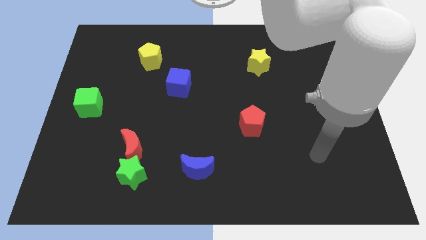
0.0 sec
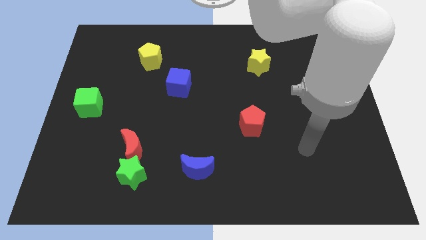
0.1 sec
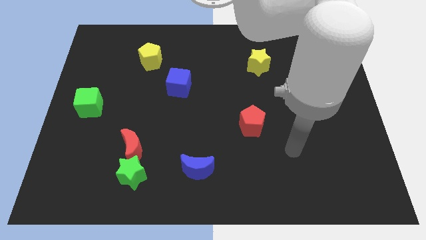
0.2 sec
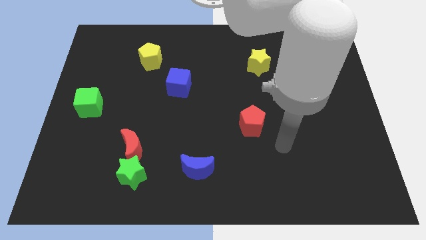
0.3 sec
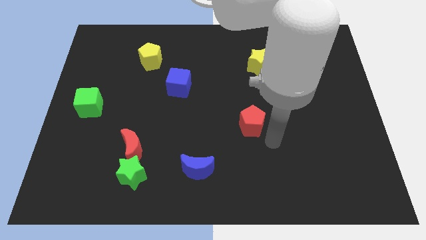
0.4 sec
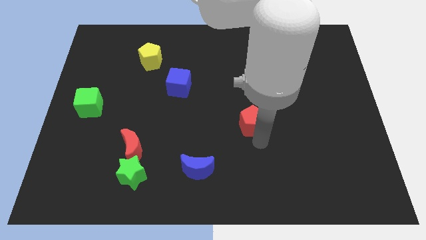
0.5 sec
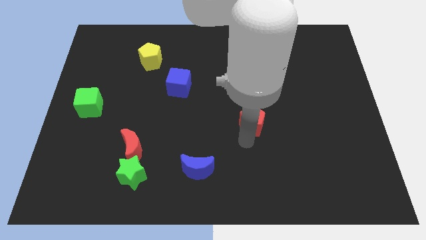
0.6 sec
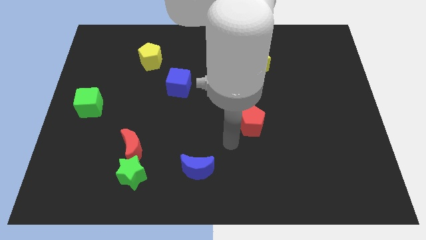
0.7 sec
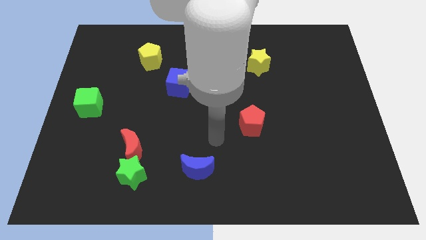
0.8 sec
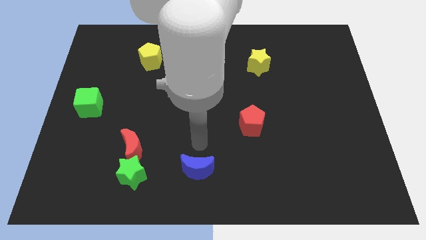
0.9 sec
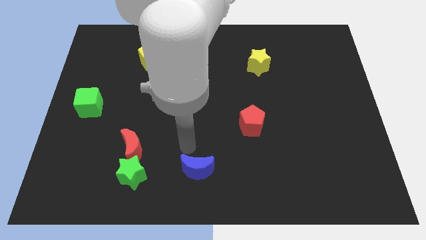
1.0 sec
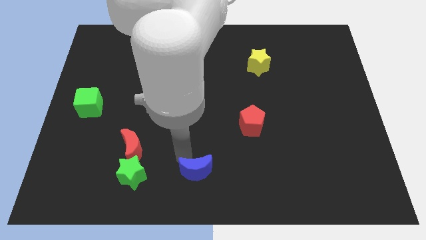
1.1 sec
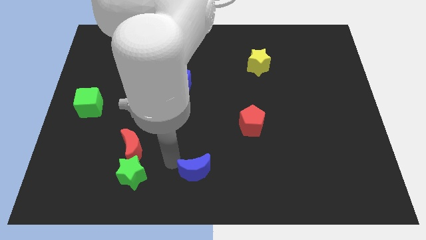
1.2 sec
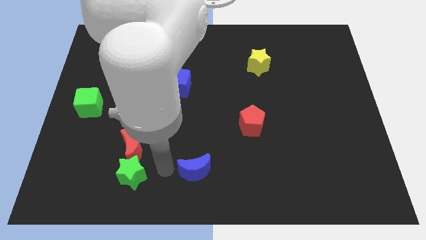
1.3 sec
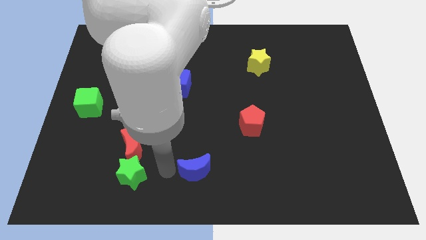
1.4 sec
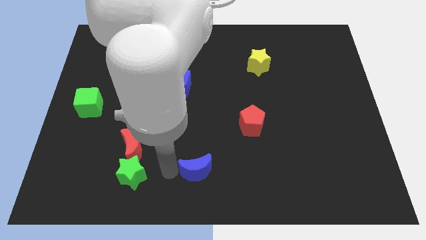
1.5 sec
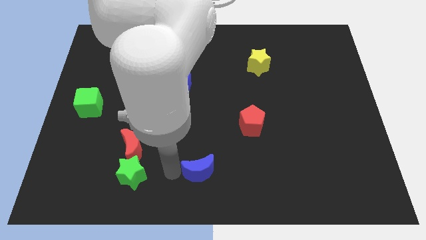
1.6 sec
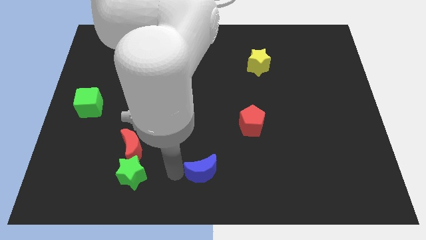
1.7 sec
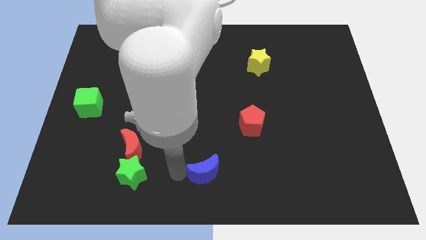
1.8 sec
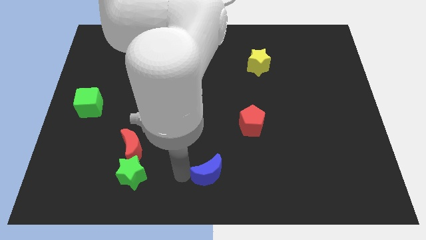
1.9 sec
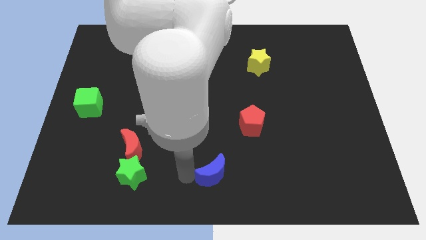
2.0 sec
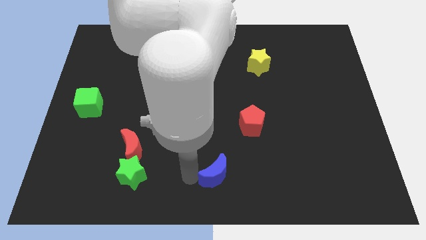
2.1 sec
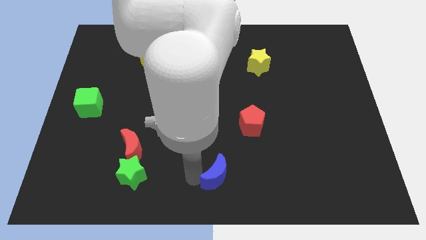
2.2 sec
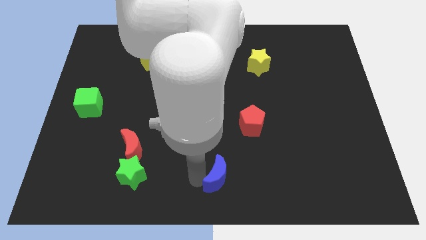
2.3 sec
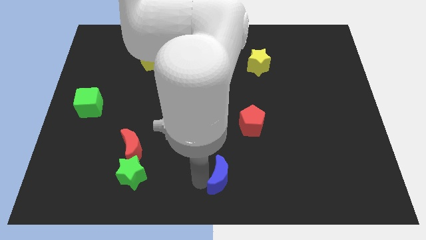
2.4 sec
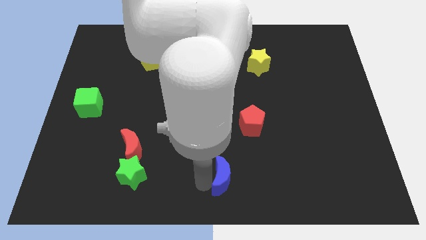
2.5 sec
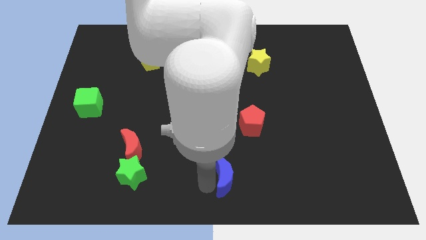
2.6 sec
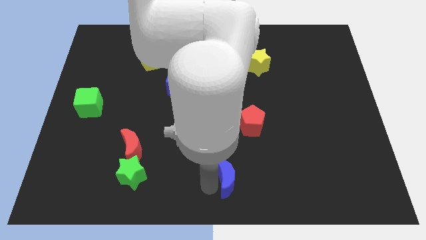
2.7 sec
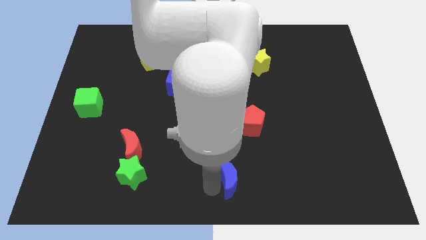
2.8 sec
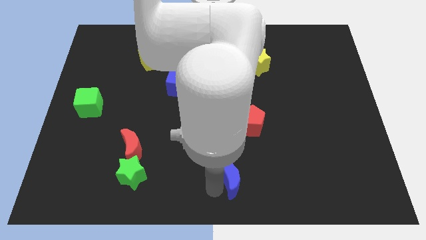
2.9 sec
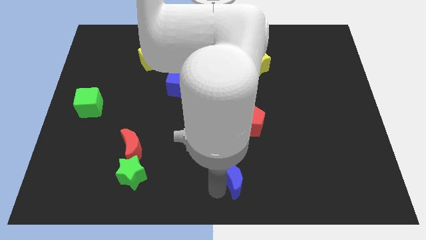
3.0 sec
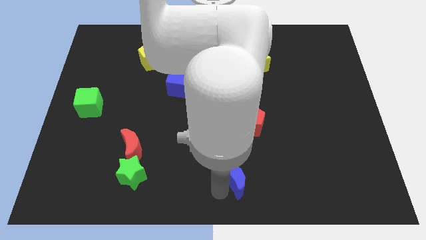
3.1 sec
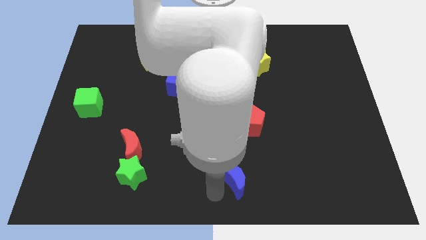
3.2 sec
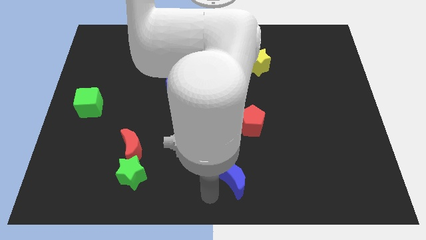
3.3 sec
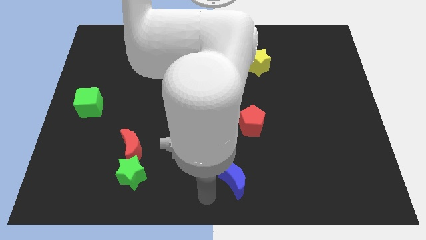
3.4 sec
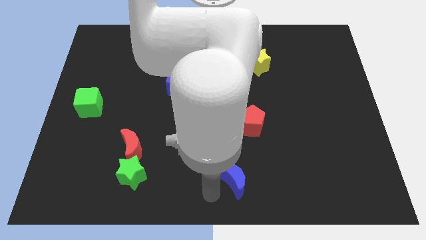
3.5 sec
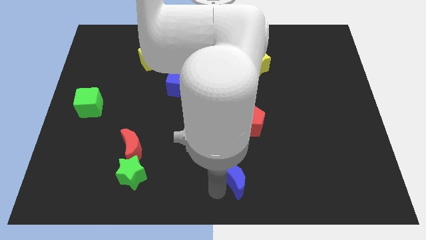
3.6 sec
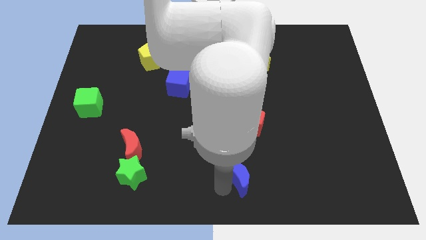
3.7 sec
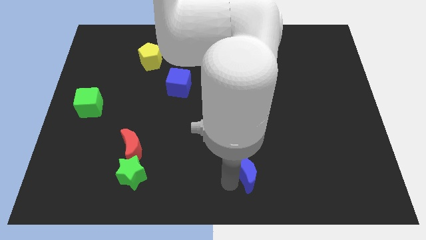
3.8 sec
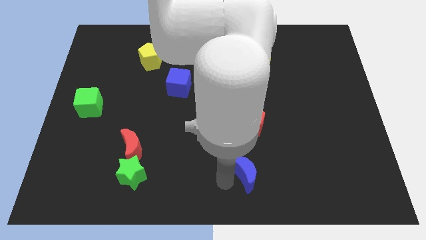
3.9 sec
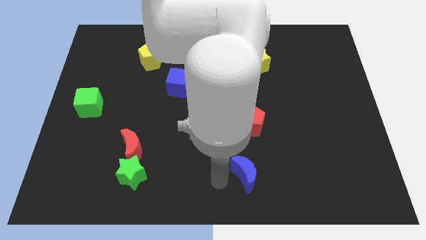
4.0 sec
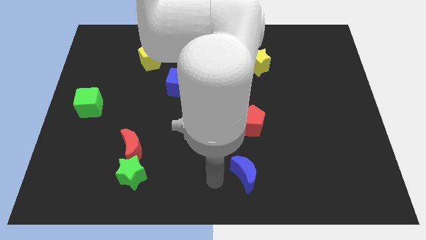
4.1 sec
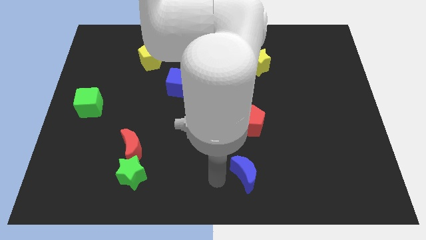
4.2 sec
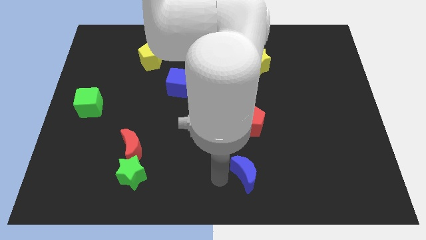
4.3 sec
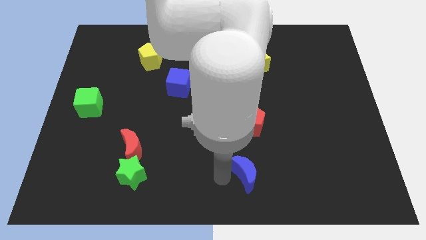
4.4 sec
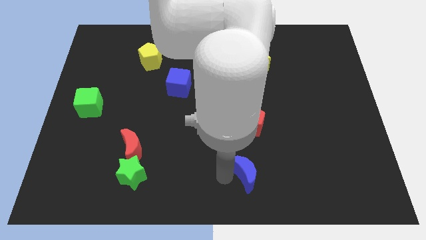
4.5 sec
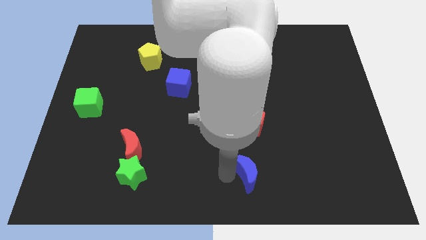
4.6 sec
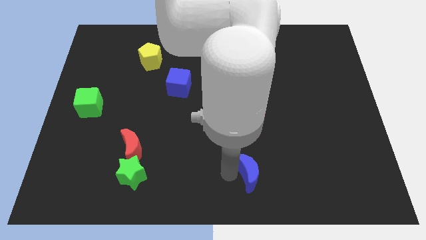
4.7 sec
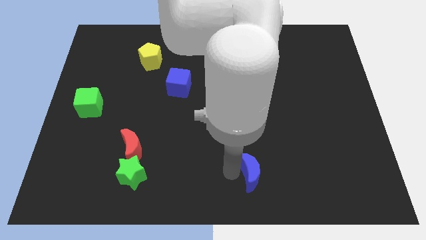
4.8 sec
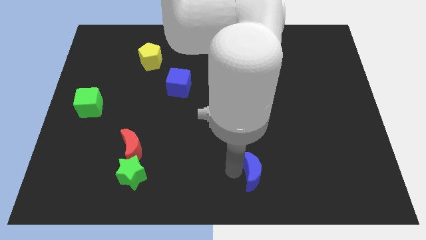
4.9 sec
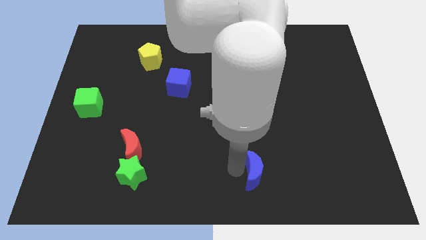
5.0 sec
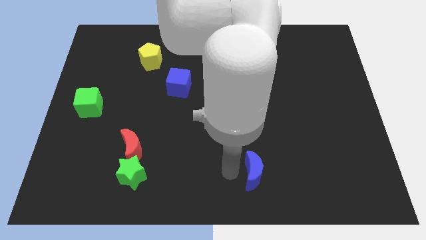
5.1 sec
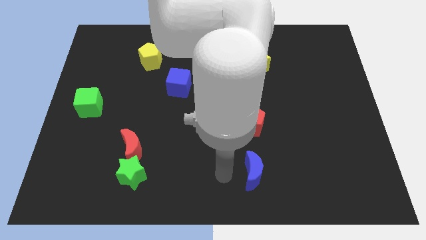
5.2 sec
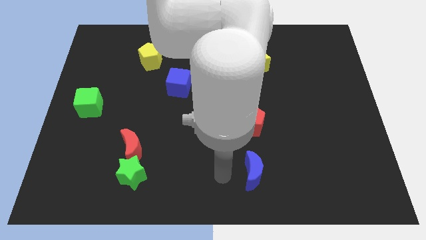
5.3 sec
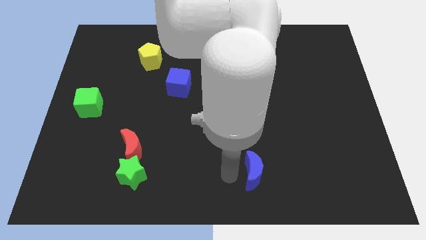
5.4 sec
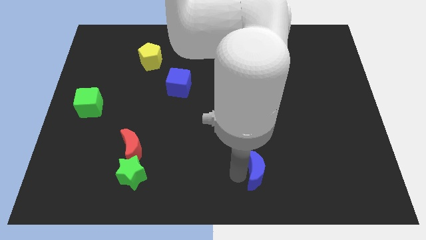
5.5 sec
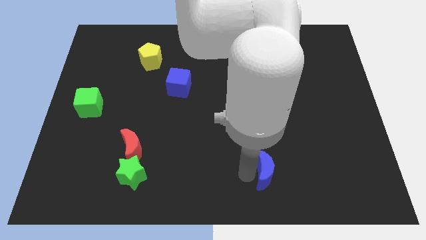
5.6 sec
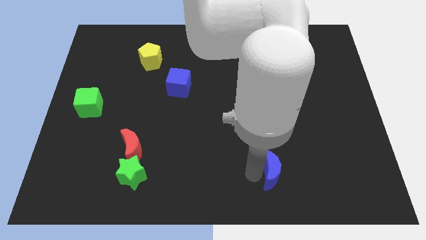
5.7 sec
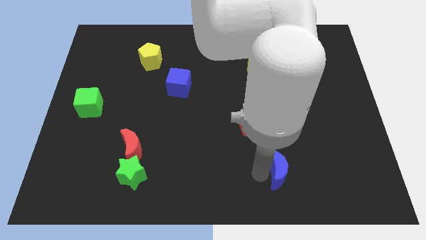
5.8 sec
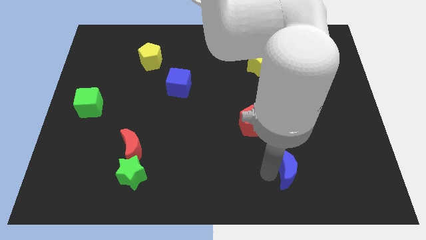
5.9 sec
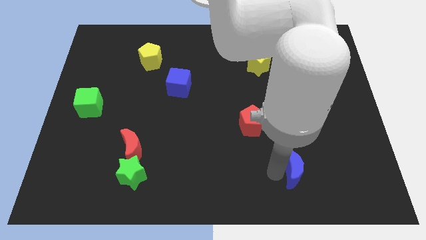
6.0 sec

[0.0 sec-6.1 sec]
move the blue moon right

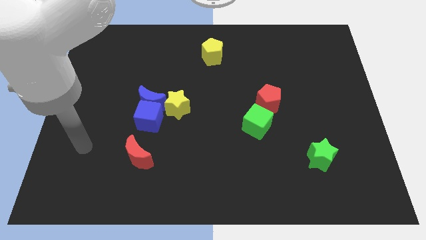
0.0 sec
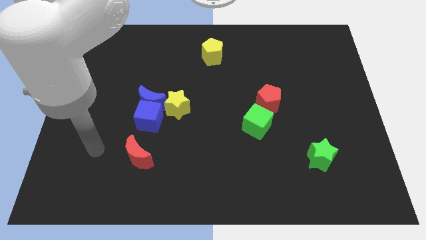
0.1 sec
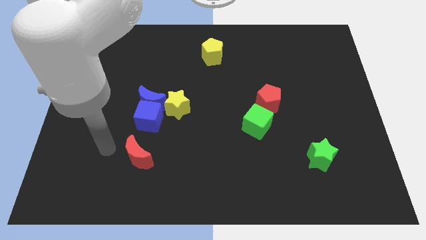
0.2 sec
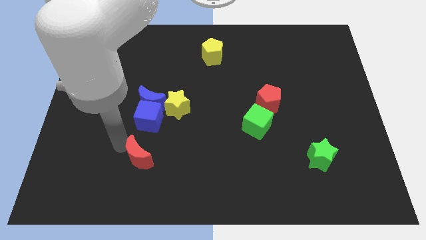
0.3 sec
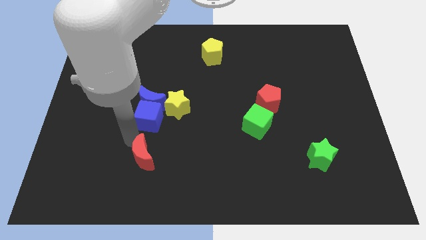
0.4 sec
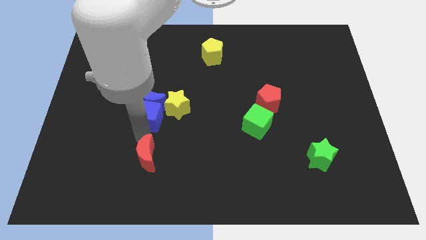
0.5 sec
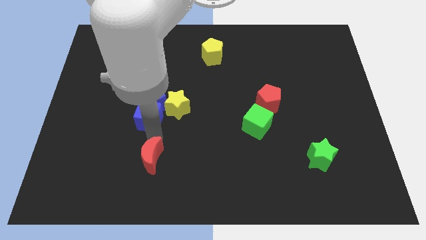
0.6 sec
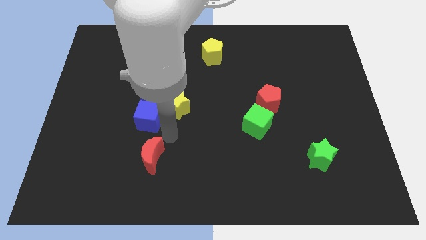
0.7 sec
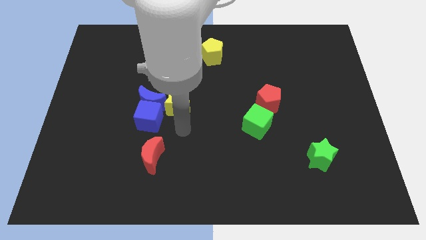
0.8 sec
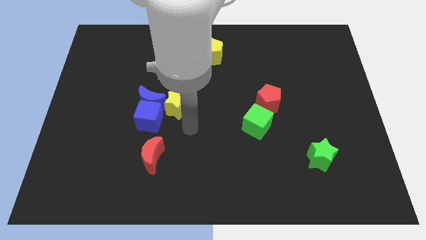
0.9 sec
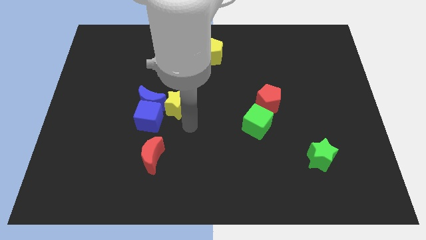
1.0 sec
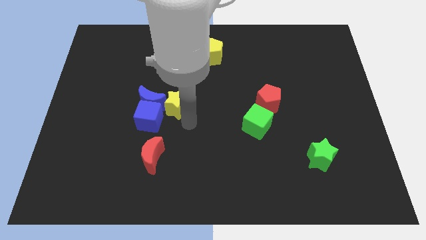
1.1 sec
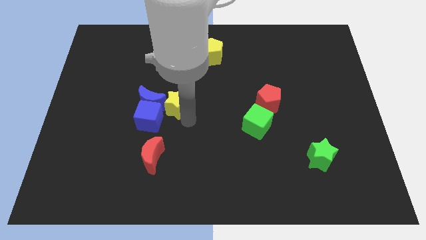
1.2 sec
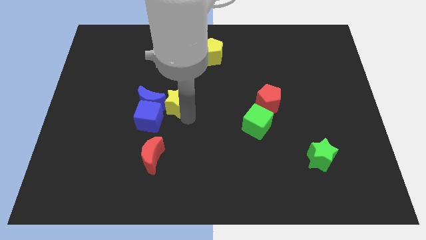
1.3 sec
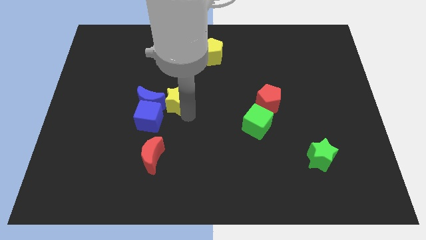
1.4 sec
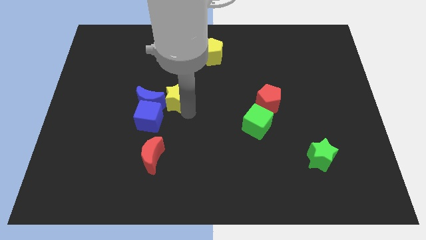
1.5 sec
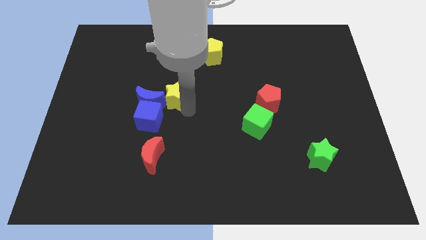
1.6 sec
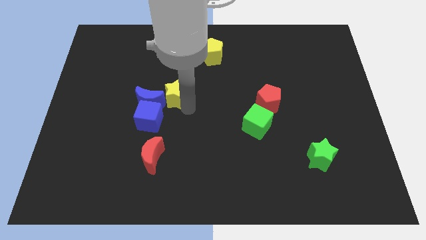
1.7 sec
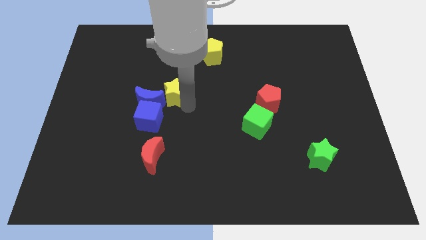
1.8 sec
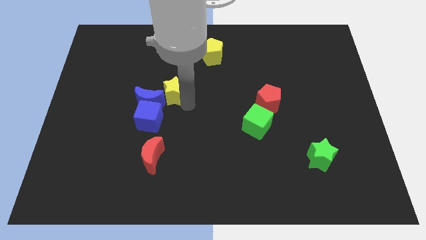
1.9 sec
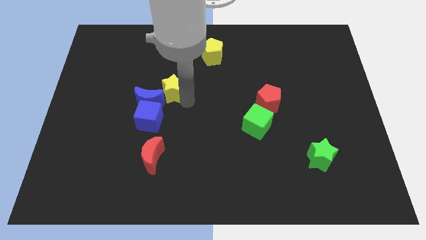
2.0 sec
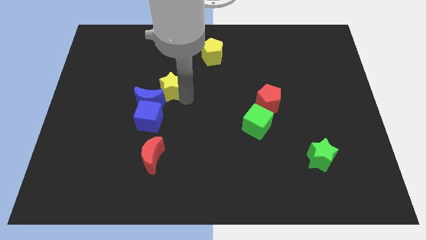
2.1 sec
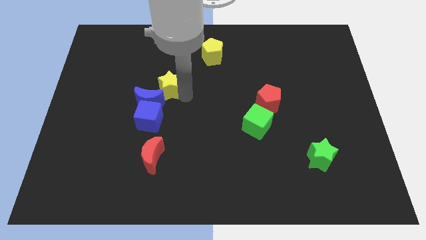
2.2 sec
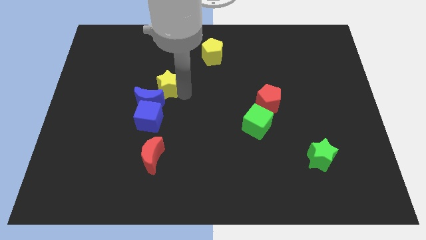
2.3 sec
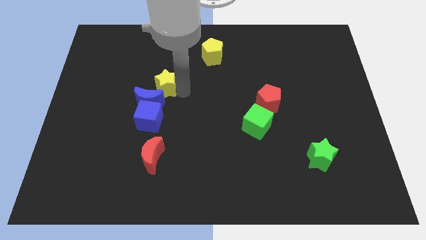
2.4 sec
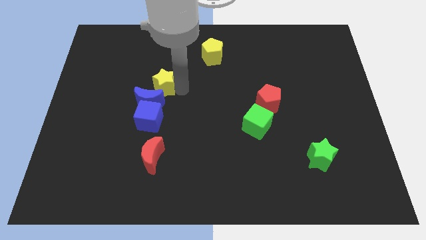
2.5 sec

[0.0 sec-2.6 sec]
slightly push the yellow star up and left diagonally
